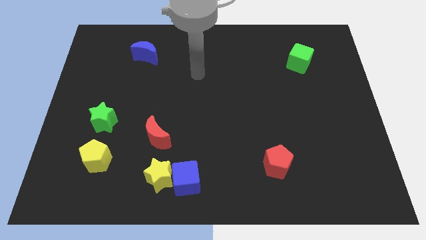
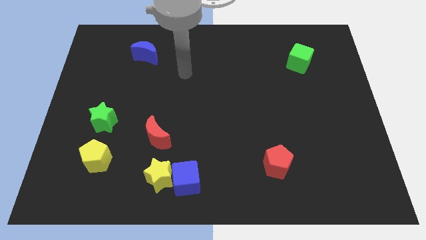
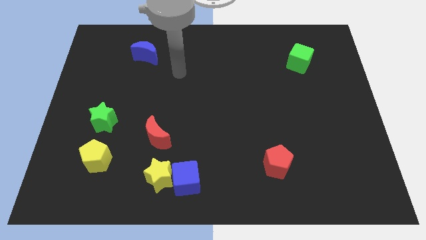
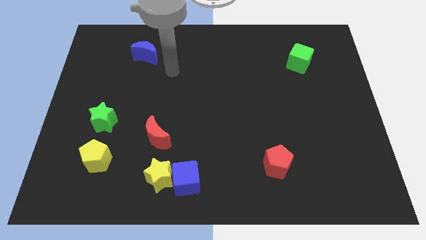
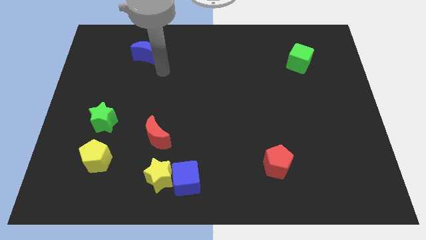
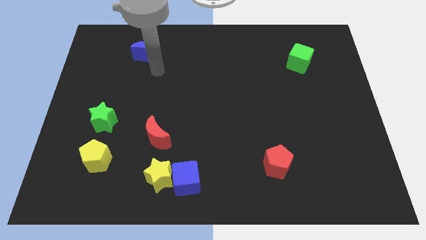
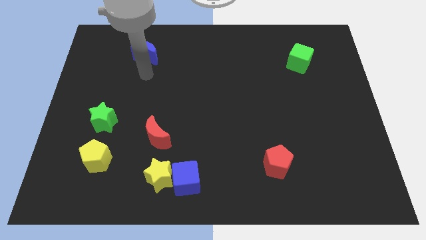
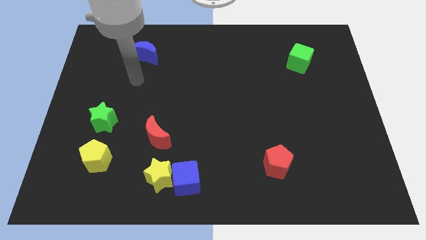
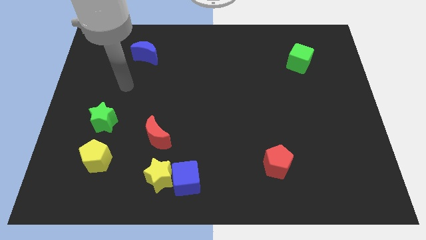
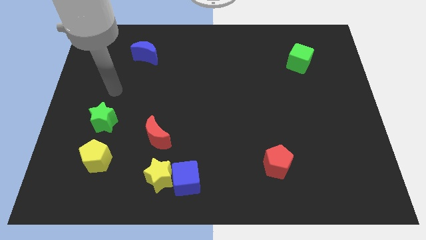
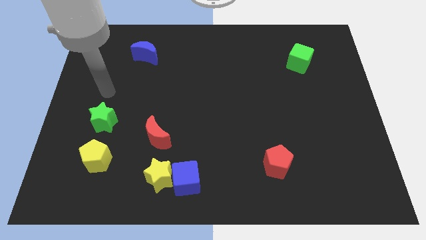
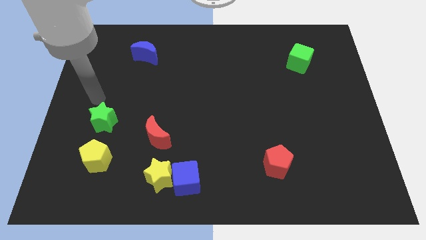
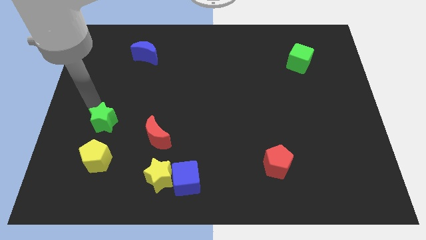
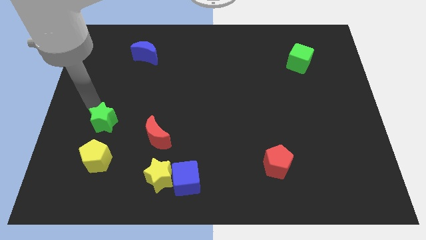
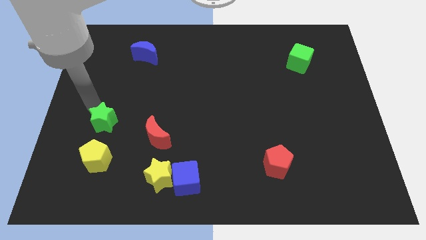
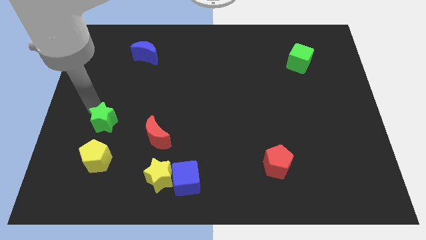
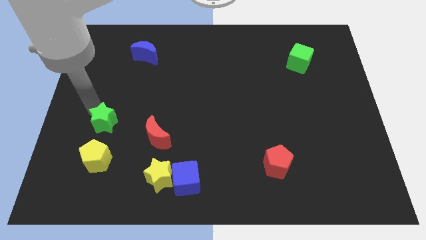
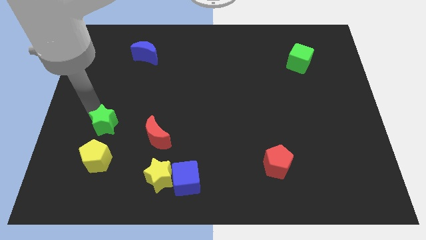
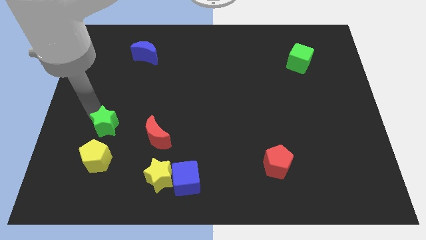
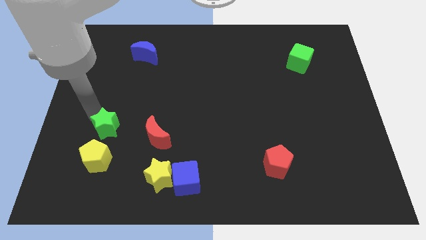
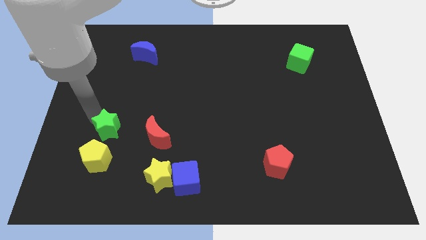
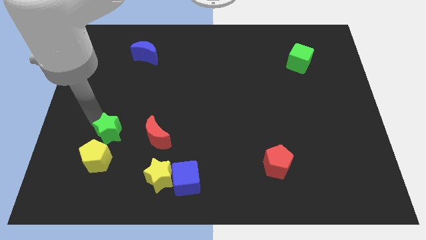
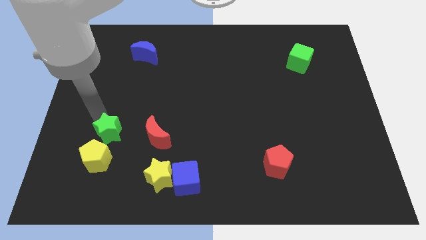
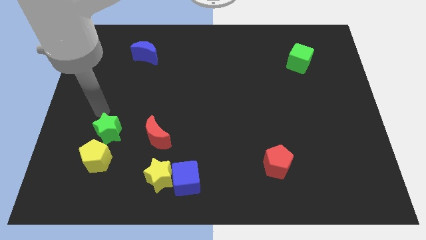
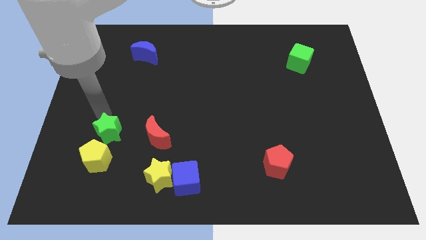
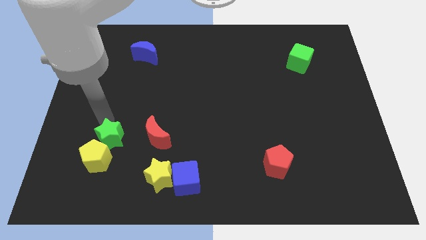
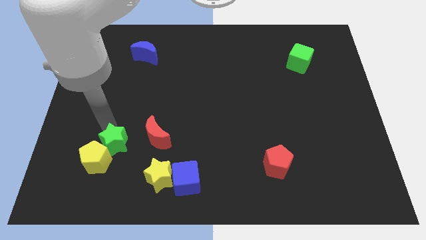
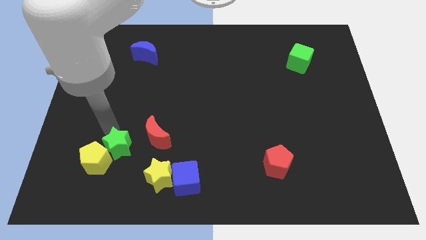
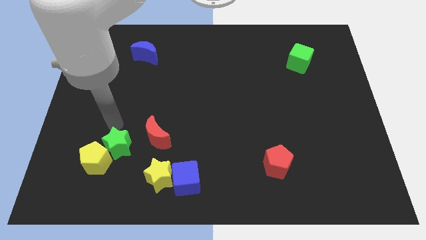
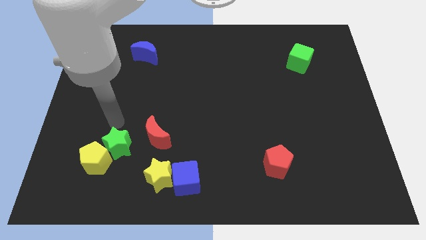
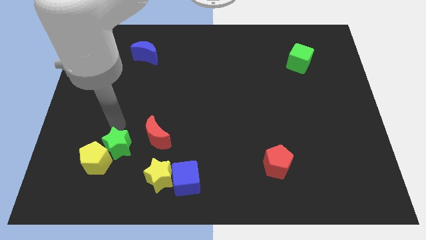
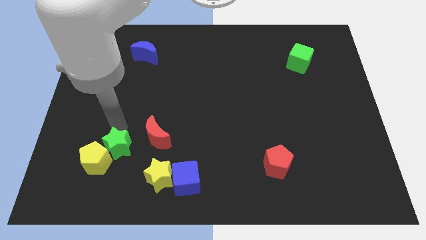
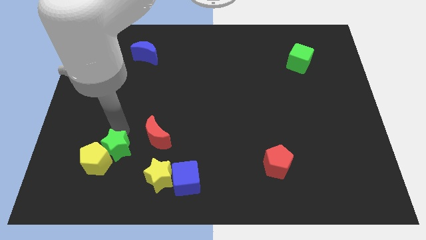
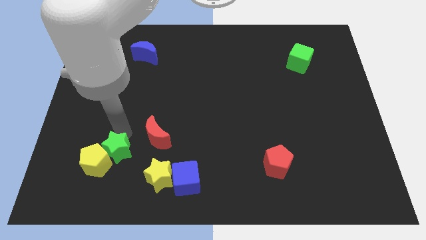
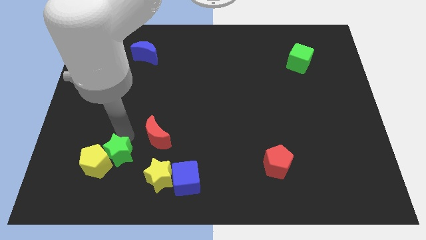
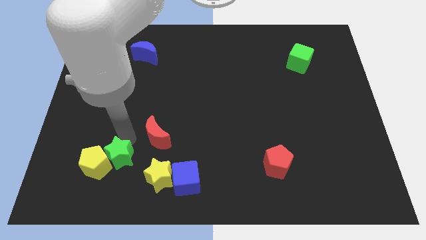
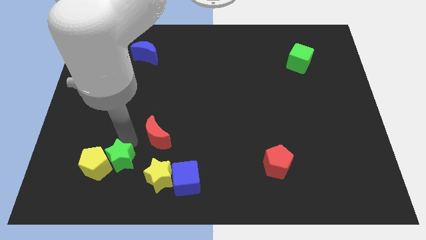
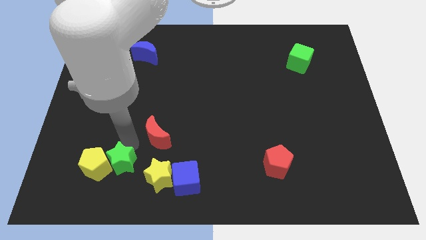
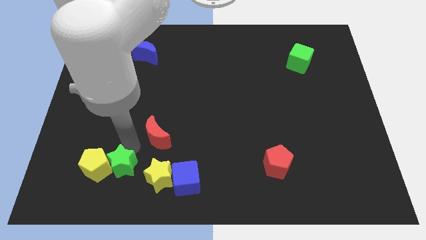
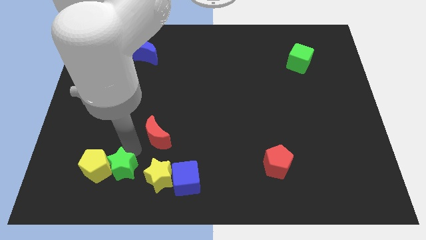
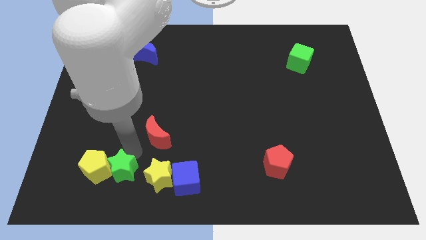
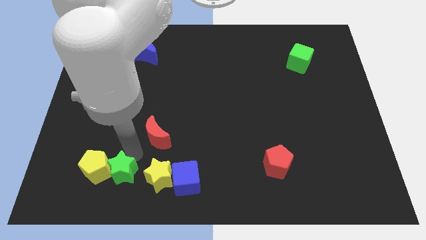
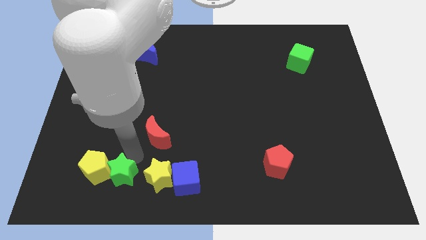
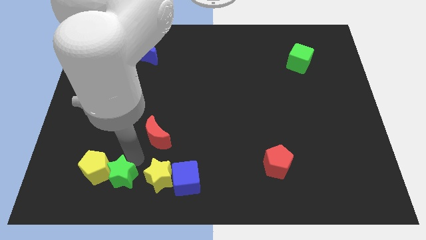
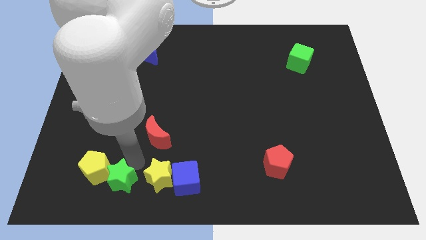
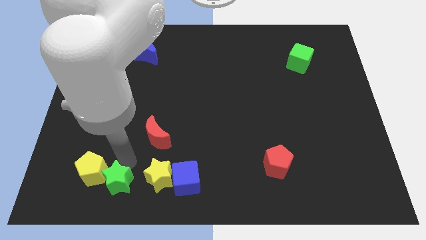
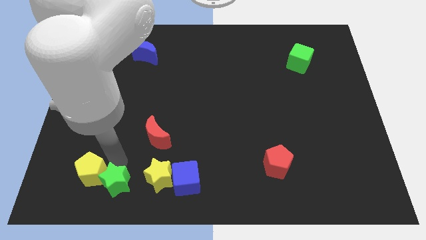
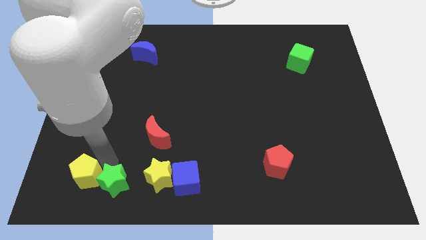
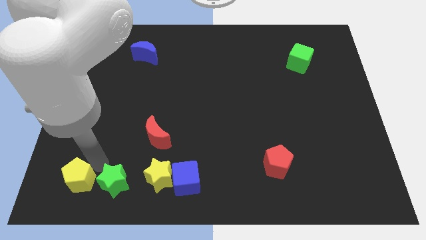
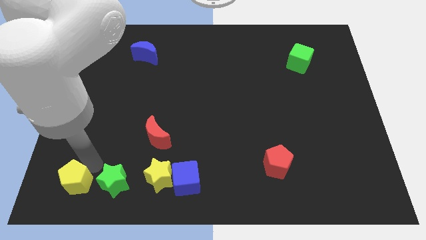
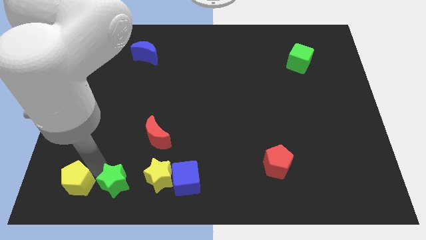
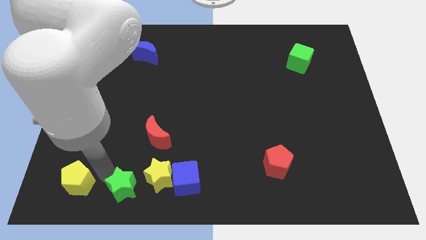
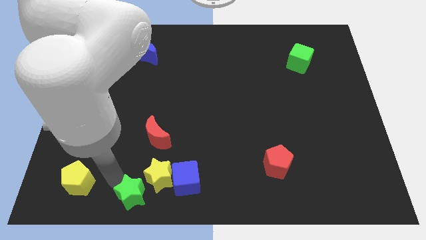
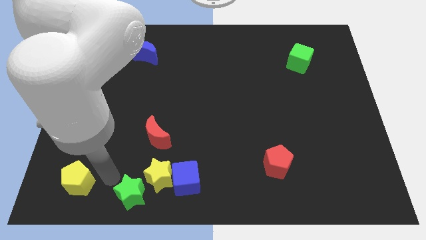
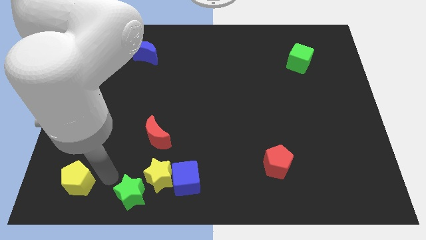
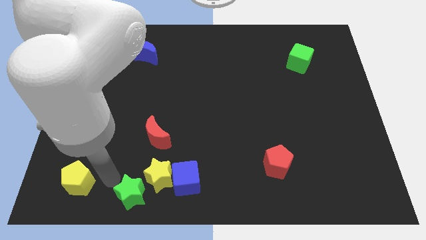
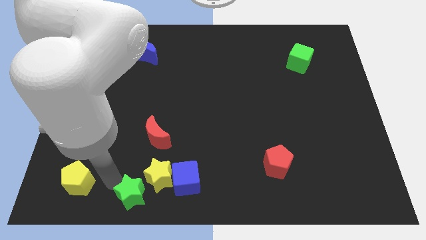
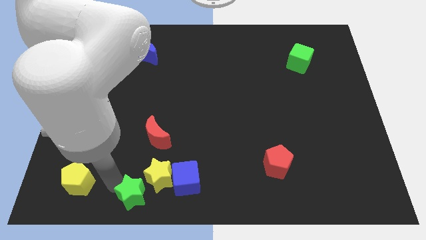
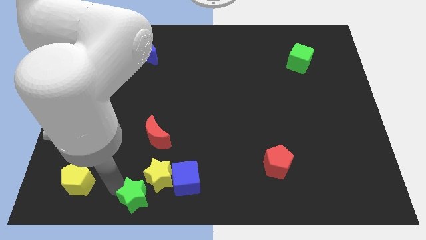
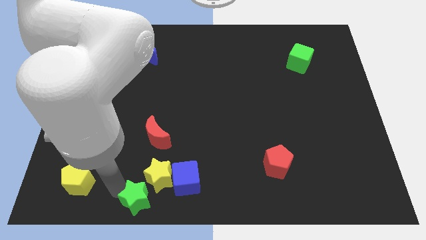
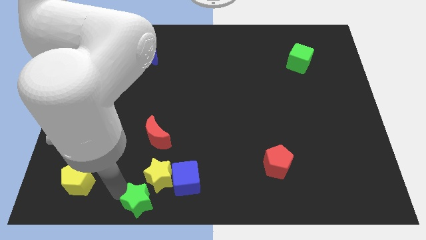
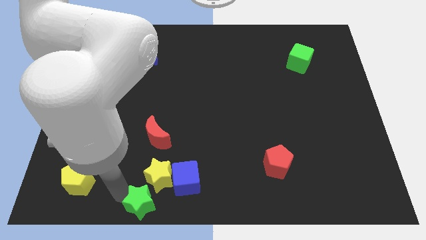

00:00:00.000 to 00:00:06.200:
put the green star to the bottom
